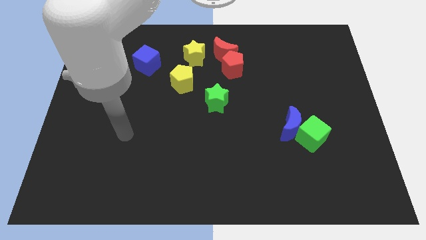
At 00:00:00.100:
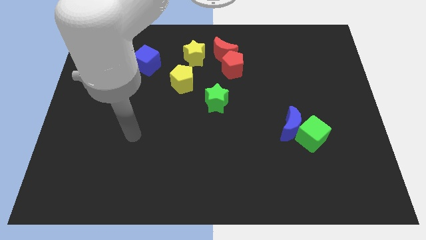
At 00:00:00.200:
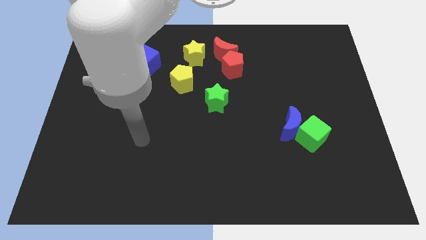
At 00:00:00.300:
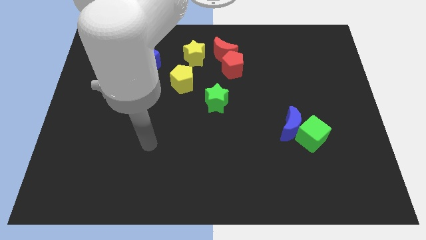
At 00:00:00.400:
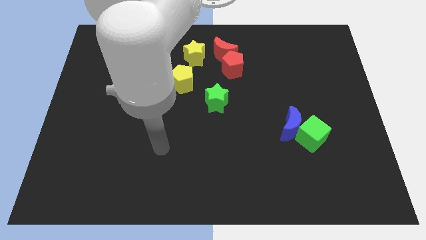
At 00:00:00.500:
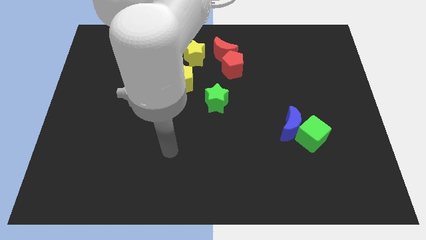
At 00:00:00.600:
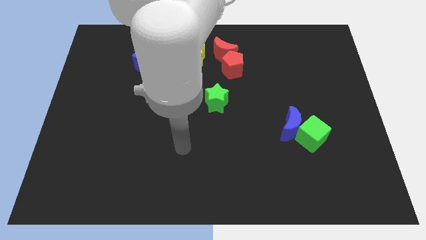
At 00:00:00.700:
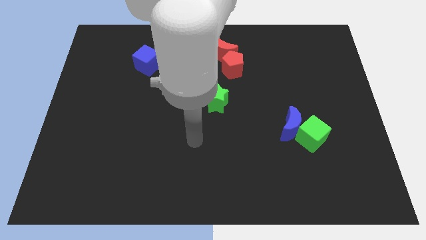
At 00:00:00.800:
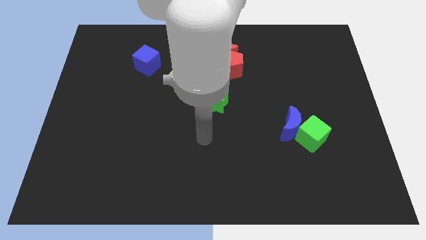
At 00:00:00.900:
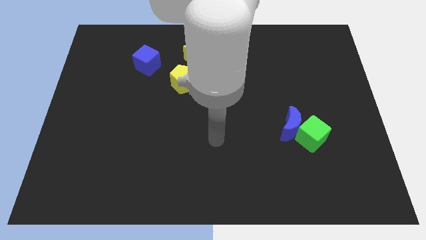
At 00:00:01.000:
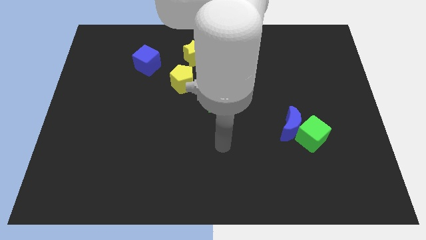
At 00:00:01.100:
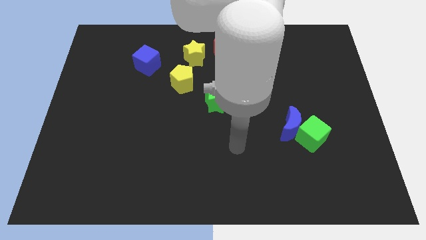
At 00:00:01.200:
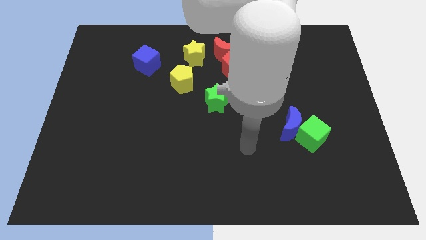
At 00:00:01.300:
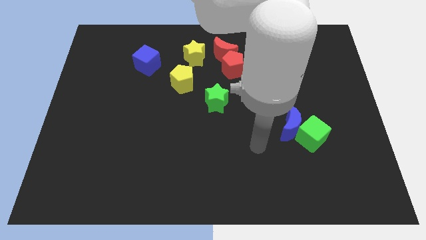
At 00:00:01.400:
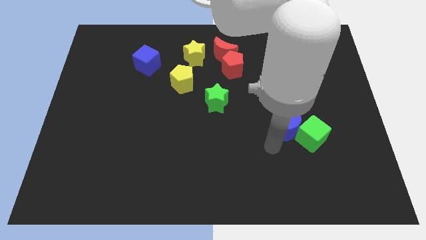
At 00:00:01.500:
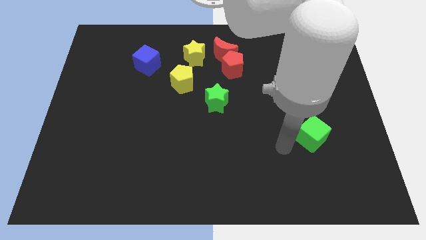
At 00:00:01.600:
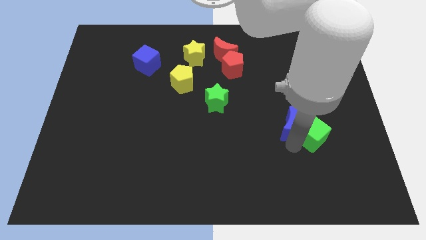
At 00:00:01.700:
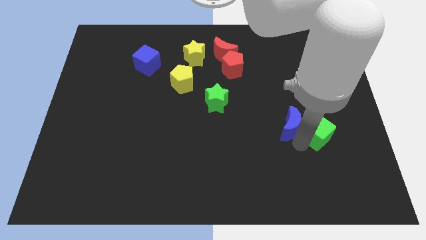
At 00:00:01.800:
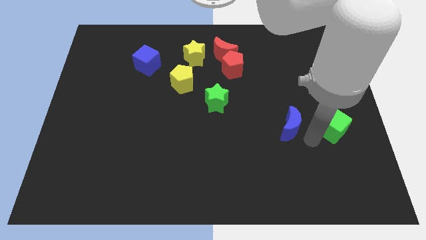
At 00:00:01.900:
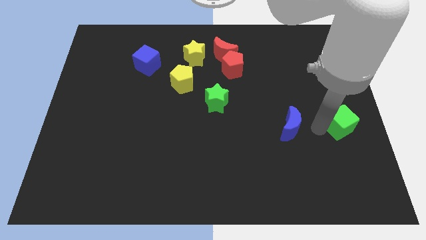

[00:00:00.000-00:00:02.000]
pull the blue moon apart from the green cube

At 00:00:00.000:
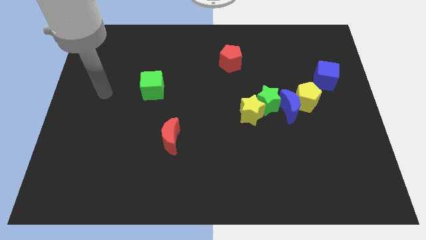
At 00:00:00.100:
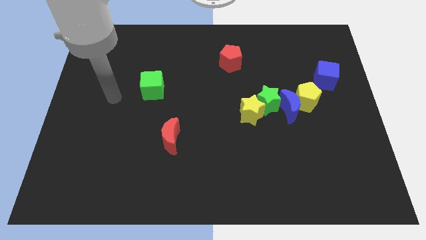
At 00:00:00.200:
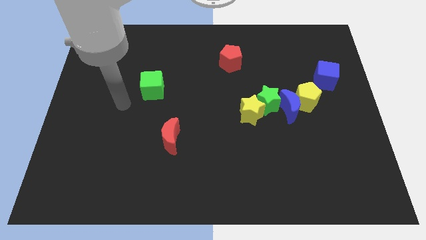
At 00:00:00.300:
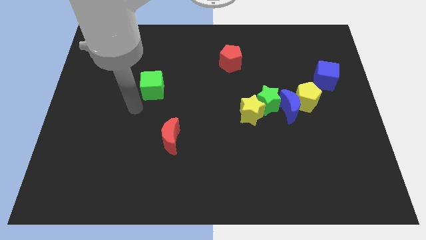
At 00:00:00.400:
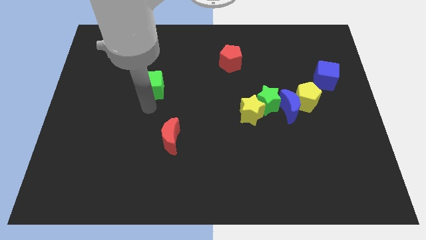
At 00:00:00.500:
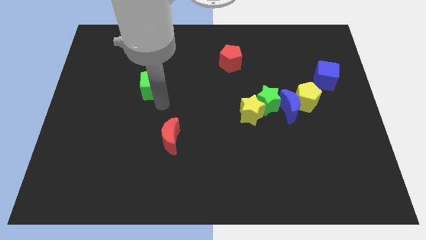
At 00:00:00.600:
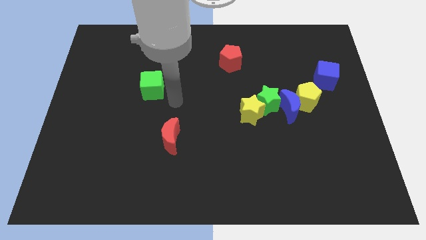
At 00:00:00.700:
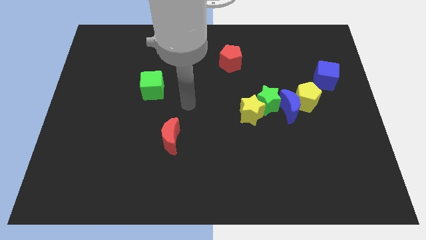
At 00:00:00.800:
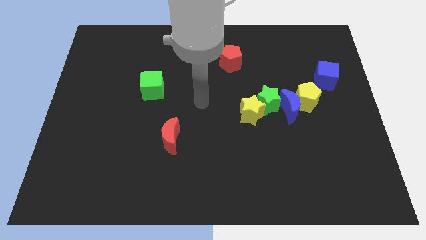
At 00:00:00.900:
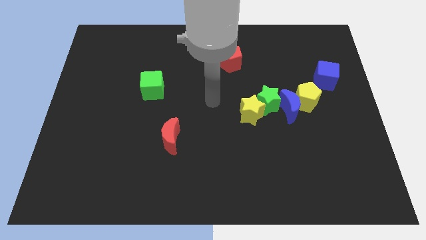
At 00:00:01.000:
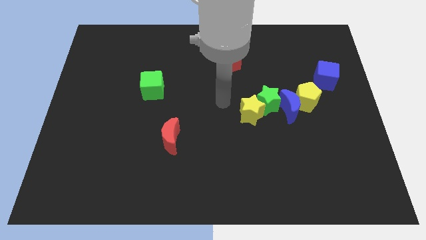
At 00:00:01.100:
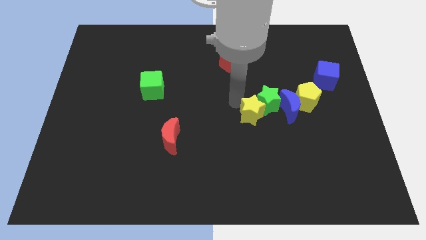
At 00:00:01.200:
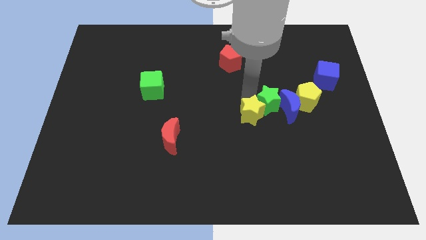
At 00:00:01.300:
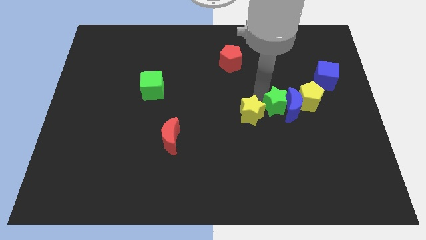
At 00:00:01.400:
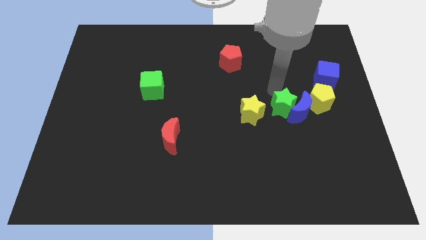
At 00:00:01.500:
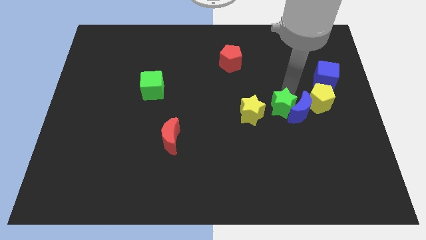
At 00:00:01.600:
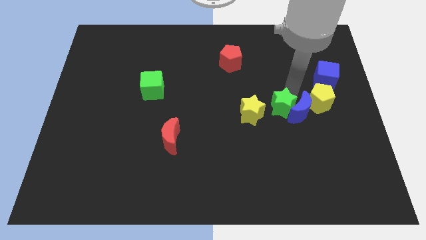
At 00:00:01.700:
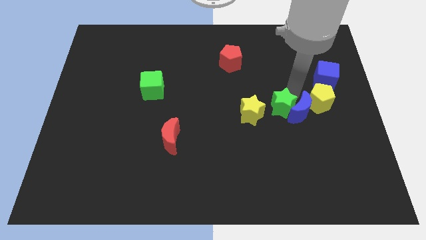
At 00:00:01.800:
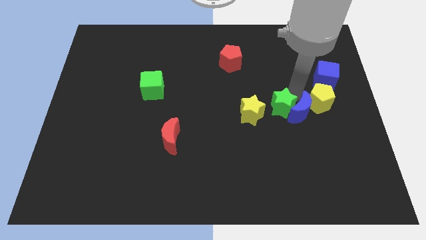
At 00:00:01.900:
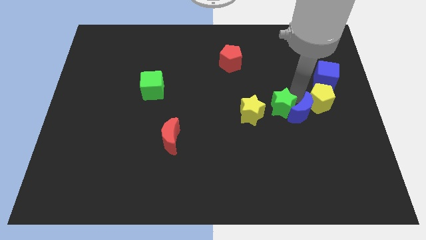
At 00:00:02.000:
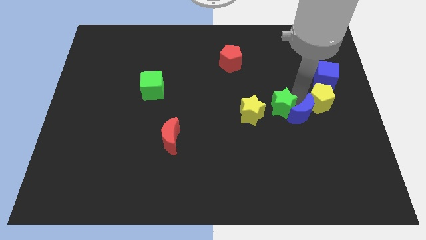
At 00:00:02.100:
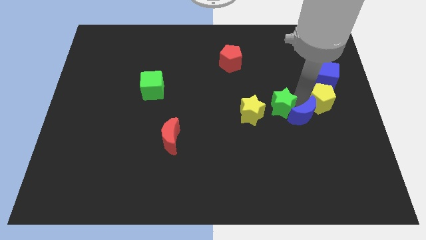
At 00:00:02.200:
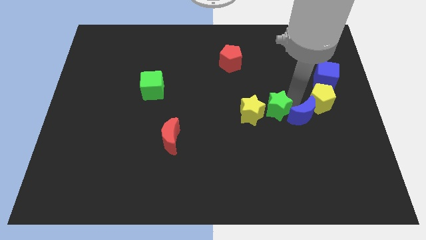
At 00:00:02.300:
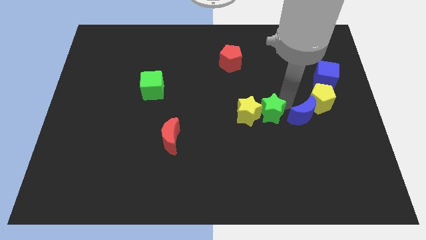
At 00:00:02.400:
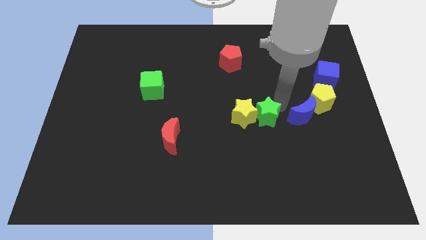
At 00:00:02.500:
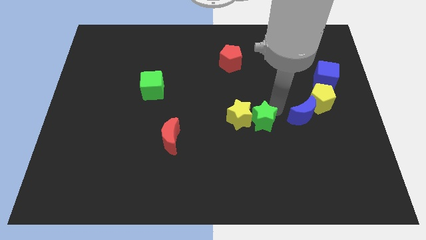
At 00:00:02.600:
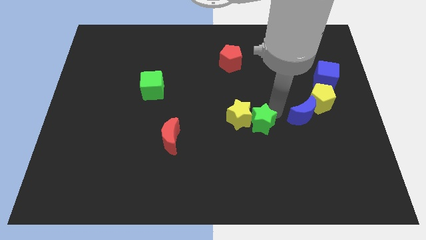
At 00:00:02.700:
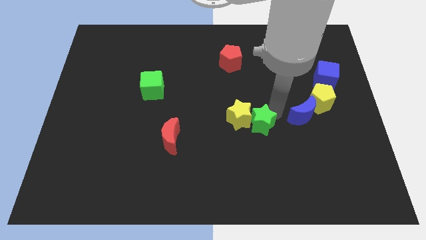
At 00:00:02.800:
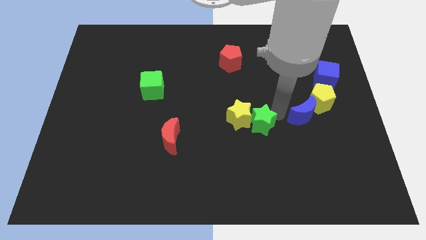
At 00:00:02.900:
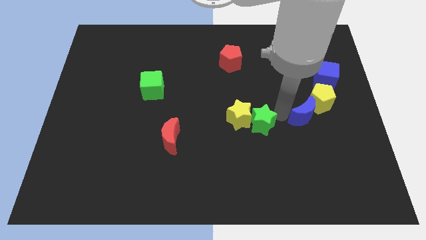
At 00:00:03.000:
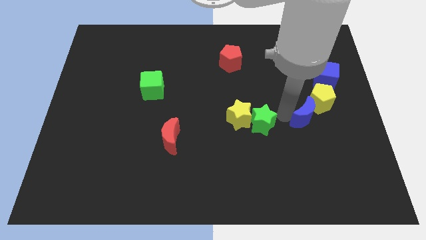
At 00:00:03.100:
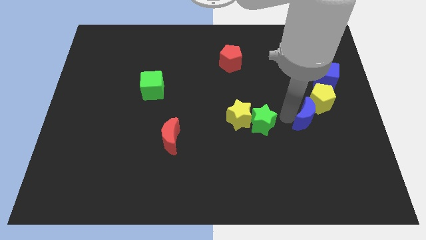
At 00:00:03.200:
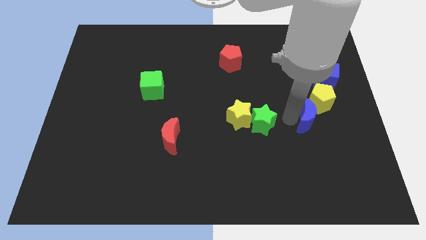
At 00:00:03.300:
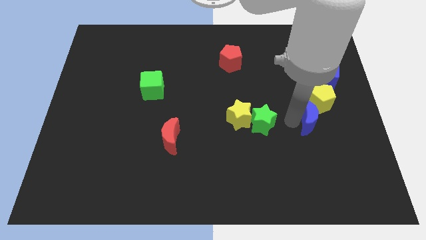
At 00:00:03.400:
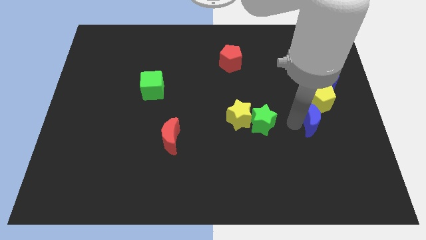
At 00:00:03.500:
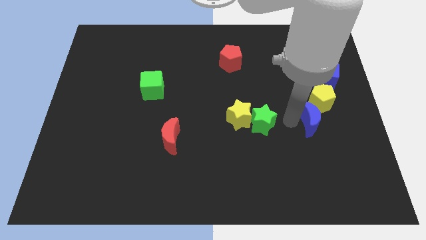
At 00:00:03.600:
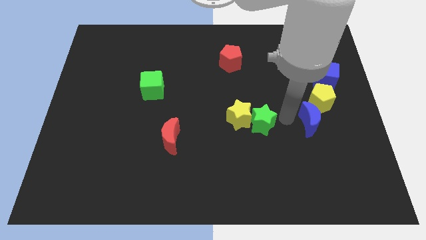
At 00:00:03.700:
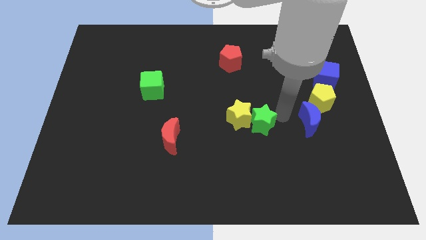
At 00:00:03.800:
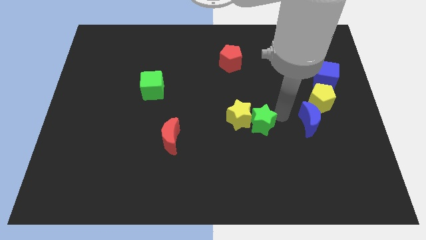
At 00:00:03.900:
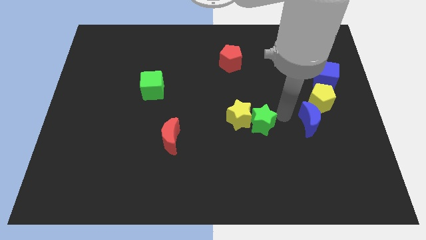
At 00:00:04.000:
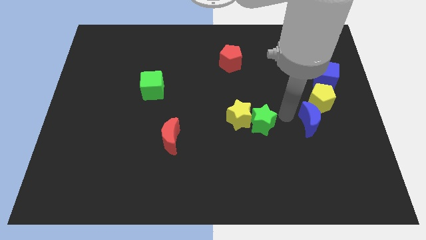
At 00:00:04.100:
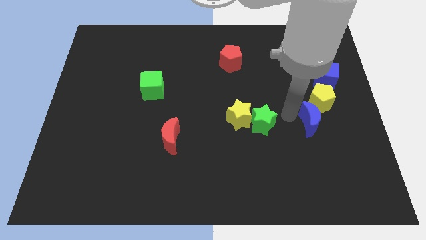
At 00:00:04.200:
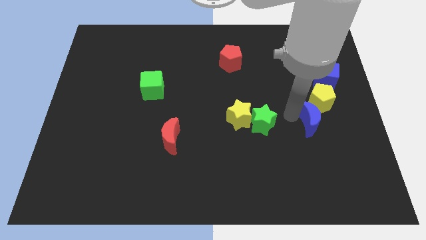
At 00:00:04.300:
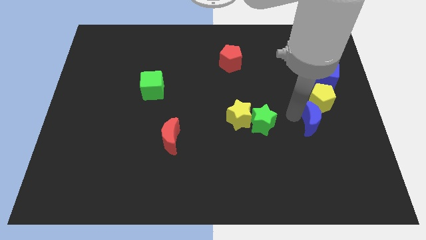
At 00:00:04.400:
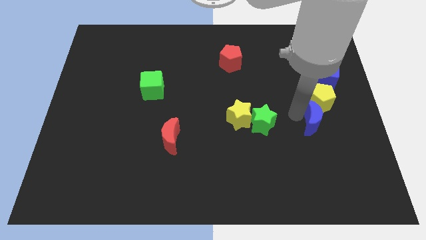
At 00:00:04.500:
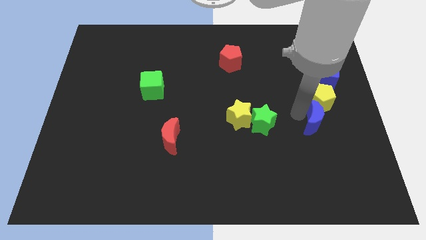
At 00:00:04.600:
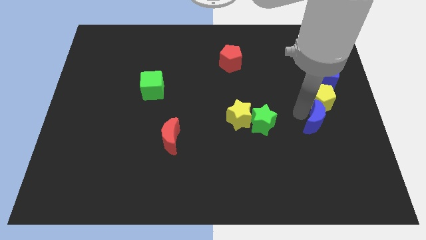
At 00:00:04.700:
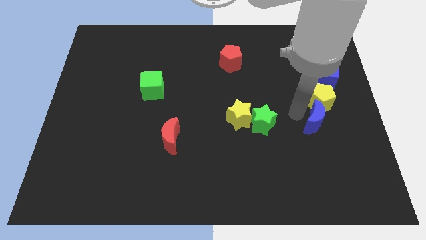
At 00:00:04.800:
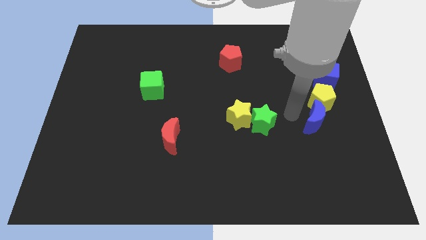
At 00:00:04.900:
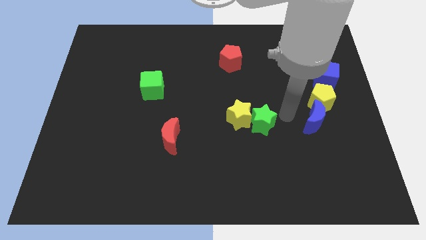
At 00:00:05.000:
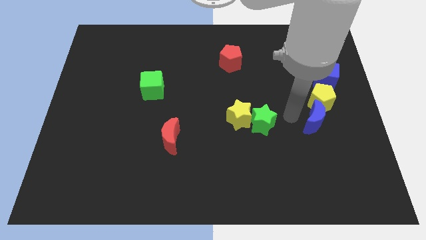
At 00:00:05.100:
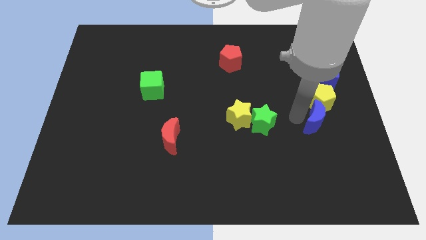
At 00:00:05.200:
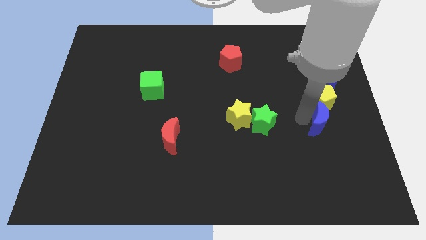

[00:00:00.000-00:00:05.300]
move the blue moon away from the yellow pentagon, green star, and yellow star

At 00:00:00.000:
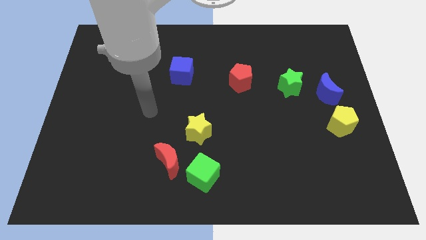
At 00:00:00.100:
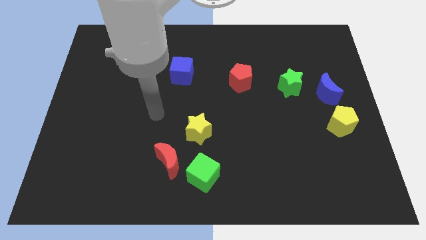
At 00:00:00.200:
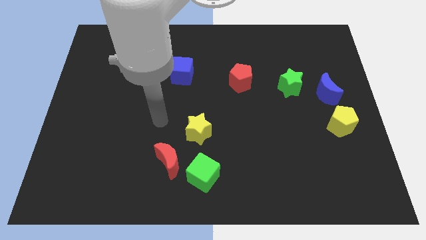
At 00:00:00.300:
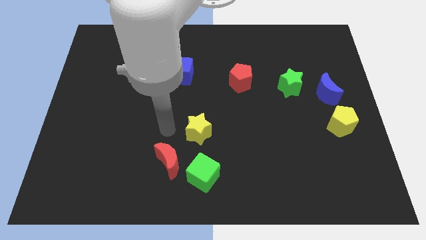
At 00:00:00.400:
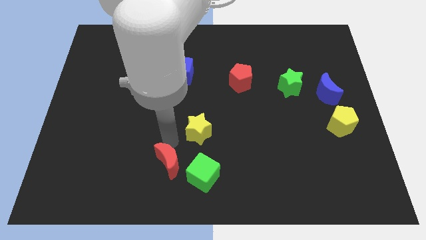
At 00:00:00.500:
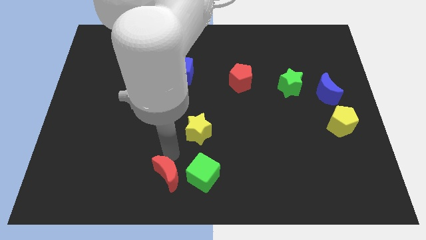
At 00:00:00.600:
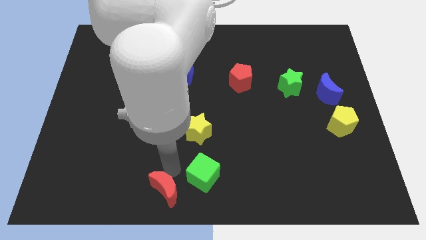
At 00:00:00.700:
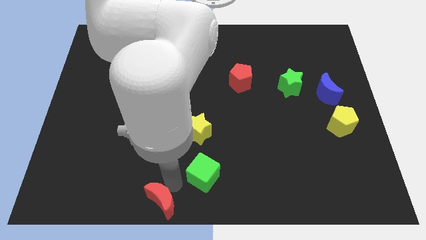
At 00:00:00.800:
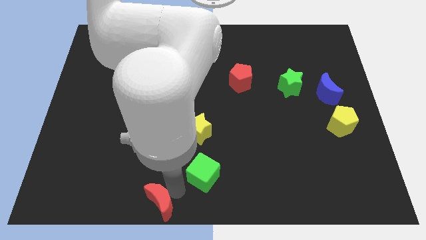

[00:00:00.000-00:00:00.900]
move the green cube away from the red moon

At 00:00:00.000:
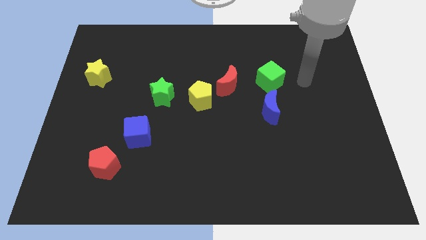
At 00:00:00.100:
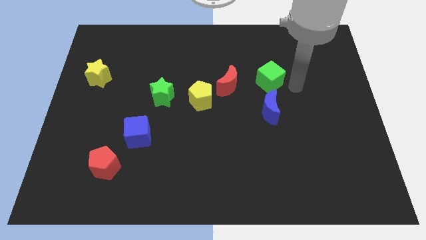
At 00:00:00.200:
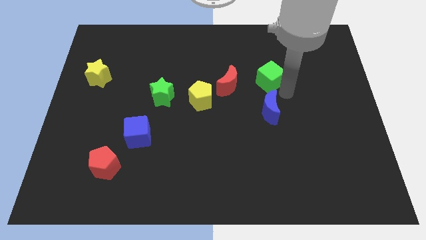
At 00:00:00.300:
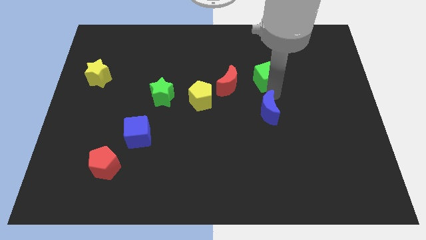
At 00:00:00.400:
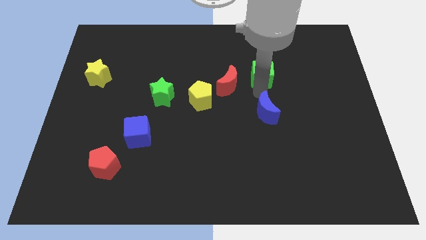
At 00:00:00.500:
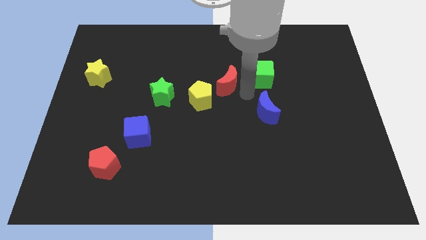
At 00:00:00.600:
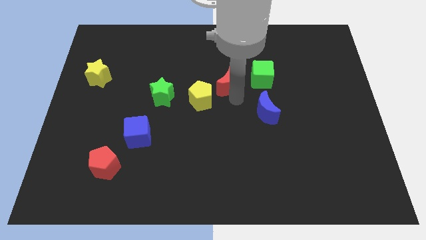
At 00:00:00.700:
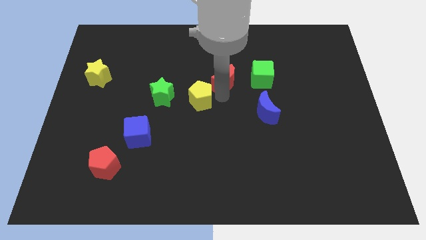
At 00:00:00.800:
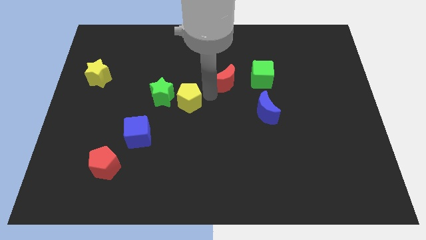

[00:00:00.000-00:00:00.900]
pull the red moon apart from the yellow pentagon
